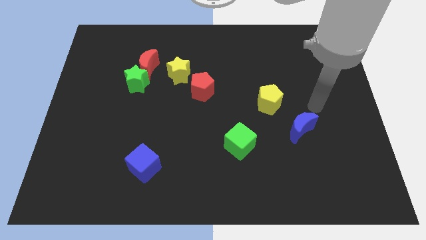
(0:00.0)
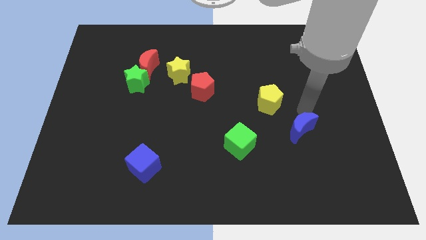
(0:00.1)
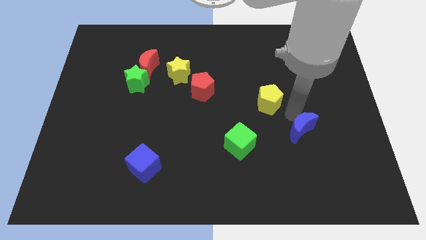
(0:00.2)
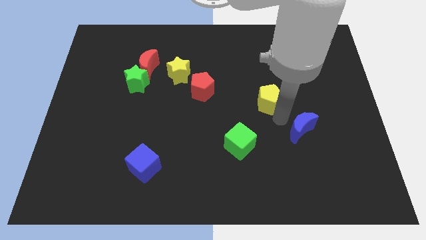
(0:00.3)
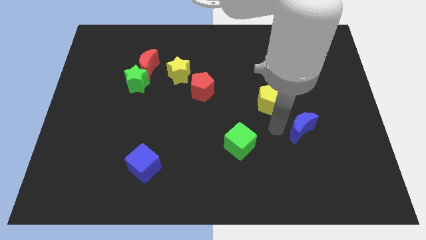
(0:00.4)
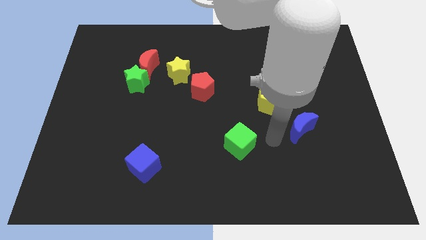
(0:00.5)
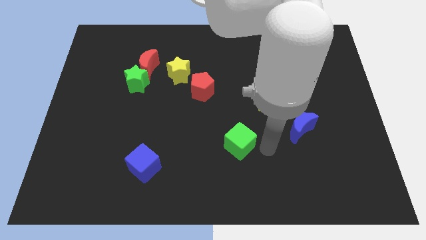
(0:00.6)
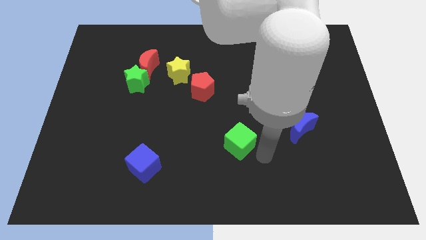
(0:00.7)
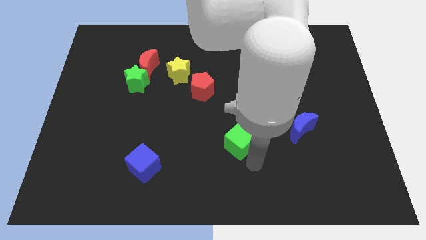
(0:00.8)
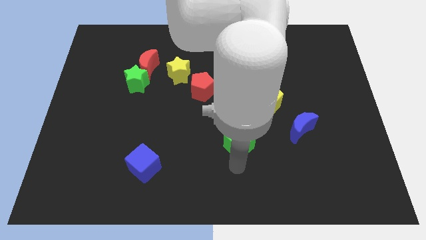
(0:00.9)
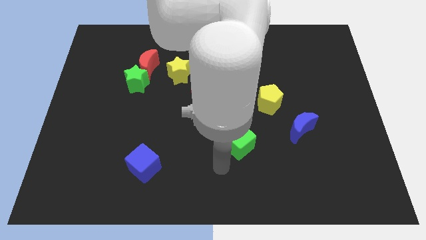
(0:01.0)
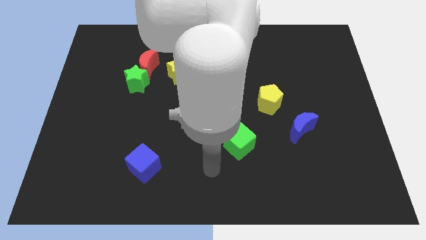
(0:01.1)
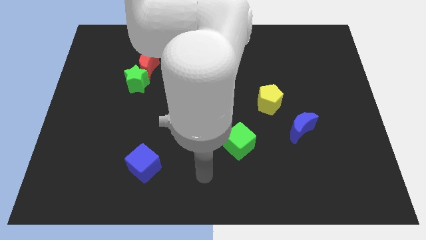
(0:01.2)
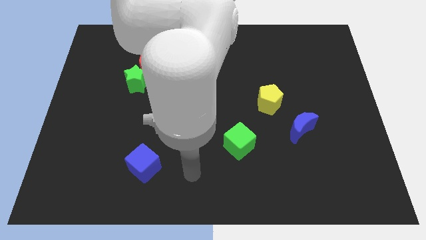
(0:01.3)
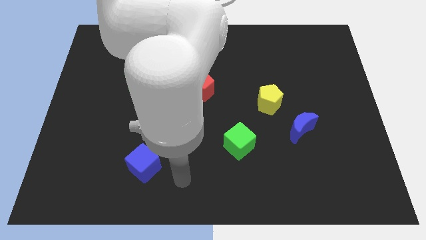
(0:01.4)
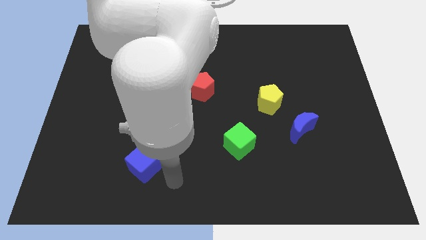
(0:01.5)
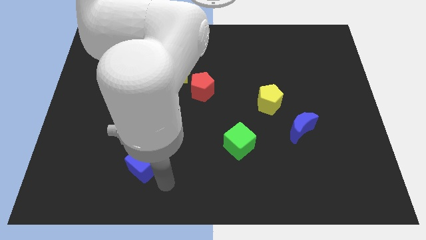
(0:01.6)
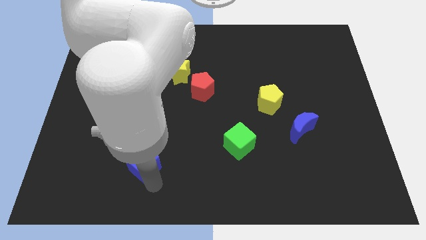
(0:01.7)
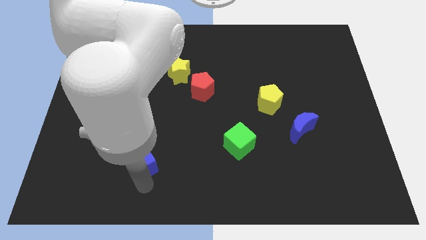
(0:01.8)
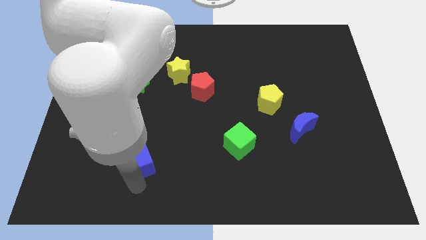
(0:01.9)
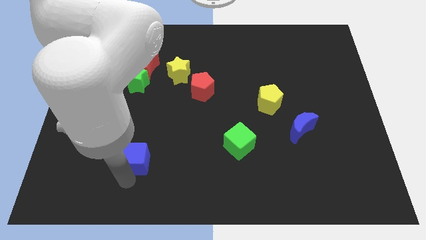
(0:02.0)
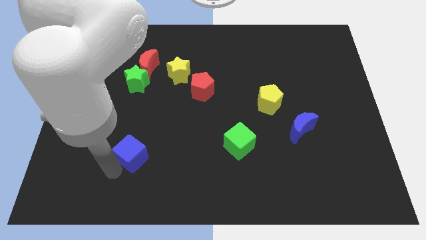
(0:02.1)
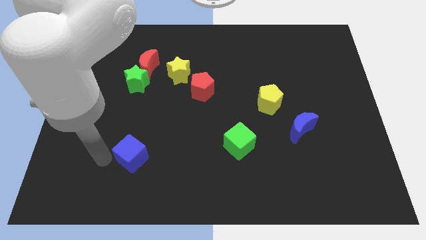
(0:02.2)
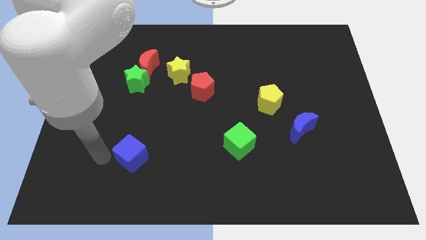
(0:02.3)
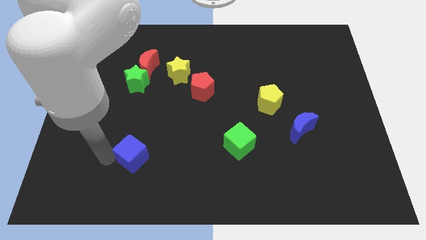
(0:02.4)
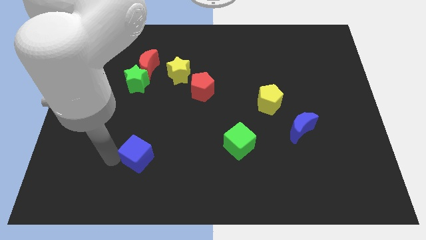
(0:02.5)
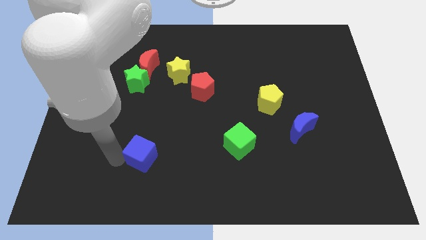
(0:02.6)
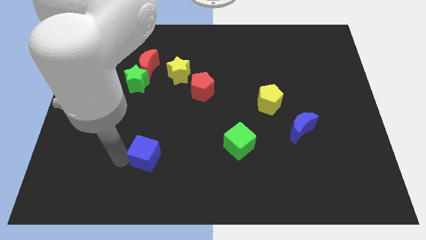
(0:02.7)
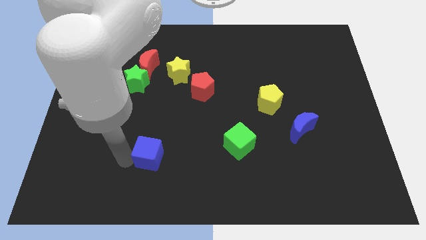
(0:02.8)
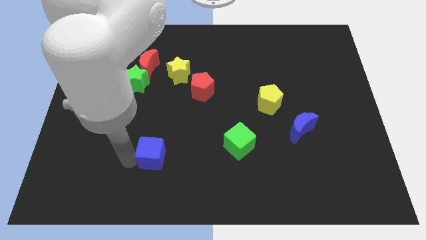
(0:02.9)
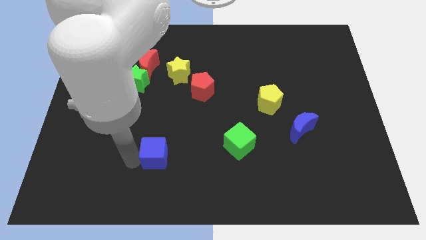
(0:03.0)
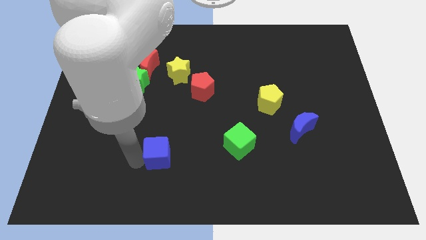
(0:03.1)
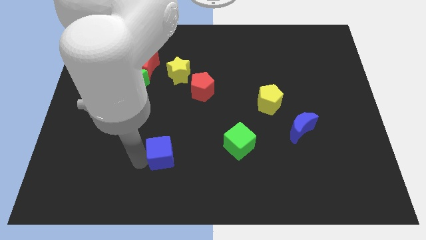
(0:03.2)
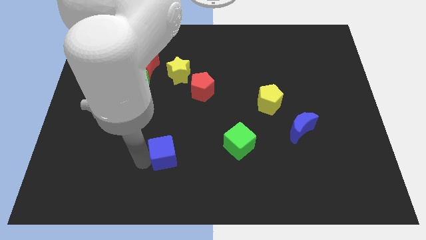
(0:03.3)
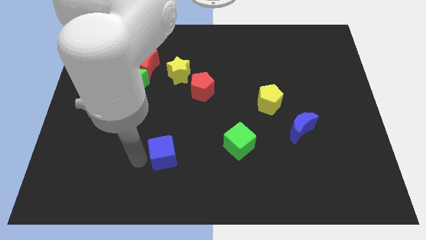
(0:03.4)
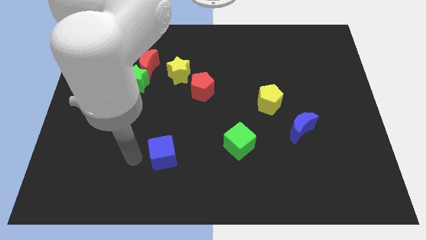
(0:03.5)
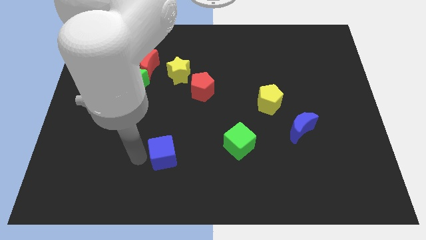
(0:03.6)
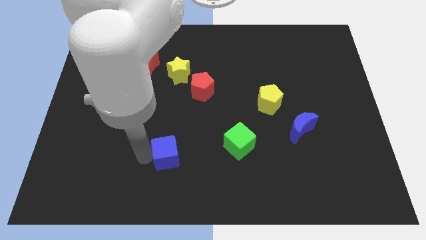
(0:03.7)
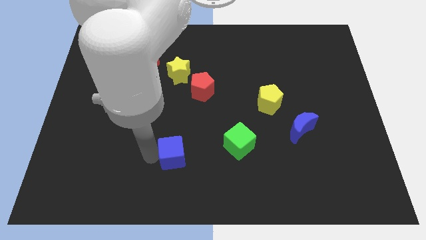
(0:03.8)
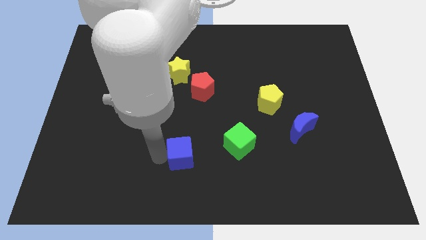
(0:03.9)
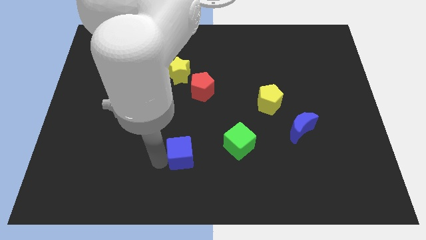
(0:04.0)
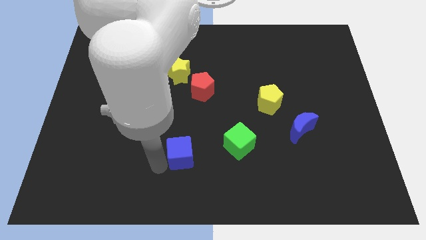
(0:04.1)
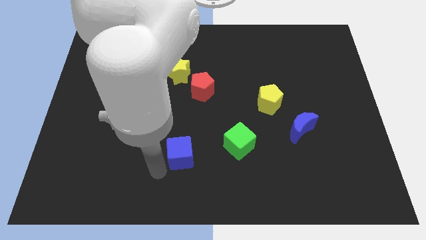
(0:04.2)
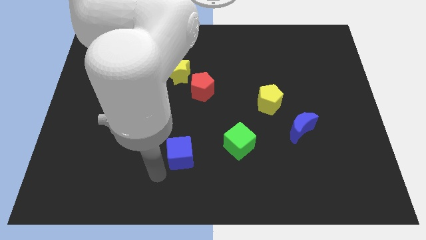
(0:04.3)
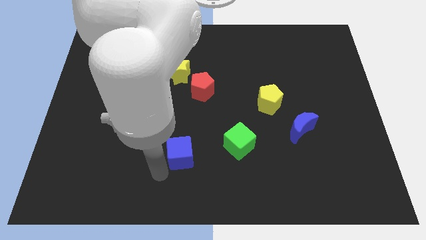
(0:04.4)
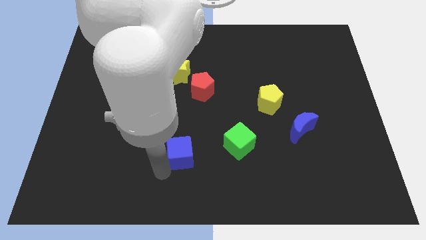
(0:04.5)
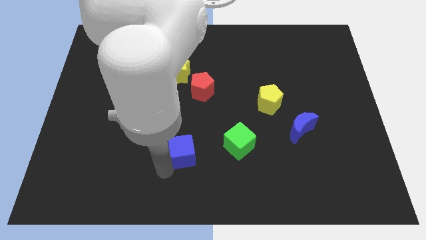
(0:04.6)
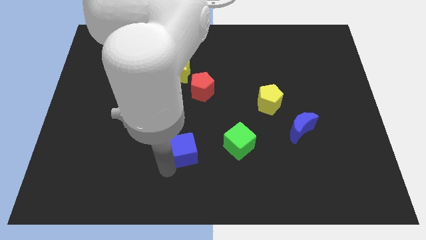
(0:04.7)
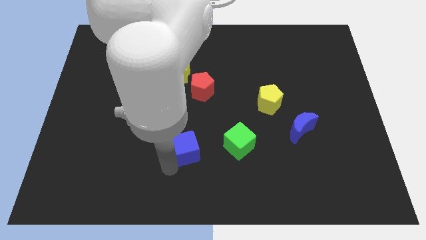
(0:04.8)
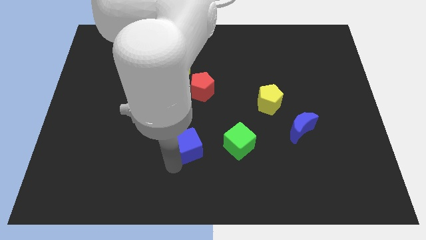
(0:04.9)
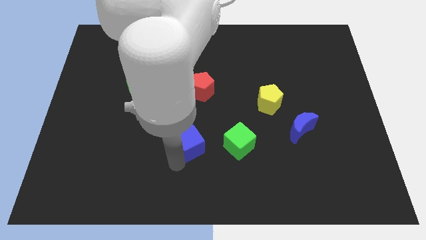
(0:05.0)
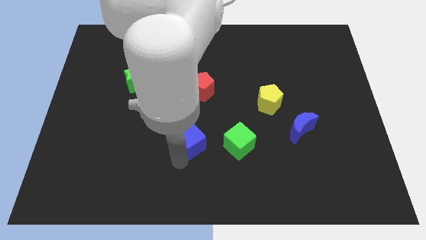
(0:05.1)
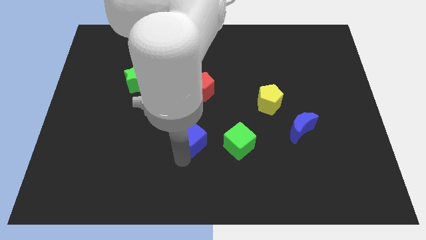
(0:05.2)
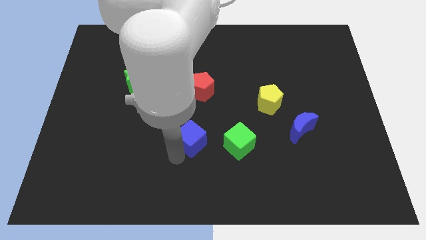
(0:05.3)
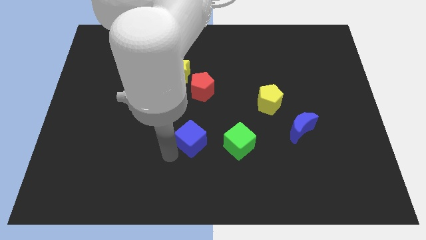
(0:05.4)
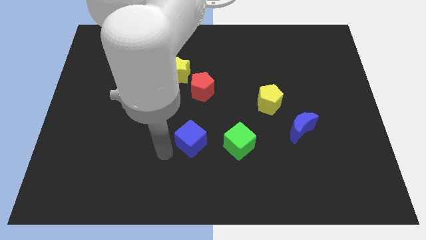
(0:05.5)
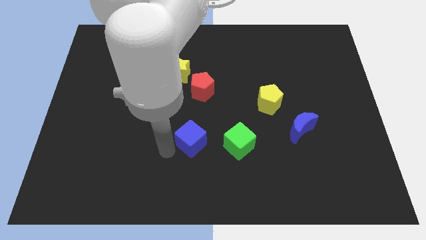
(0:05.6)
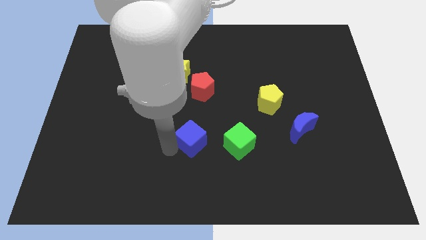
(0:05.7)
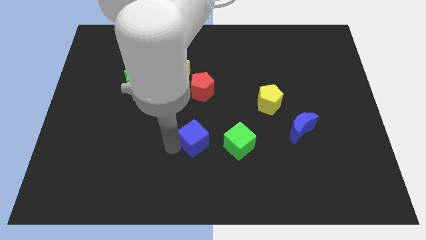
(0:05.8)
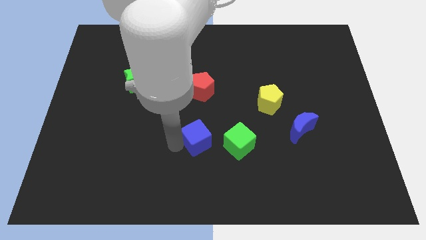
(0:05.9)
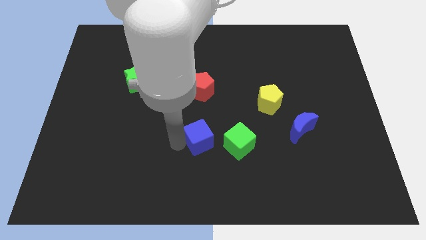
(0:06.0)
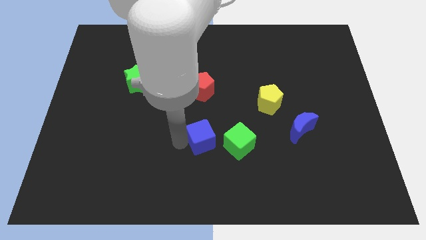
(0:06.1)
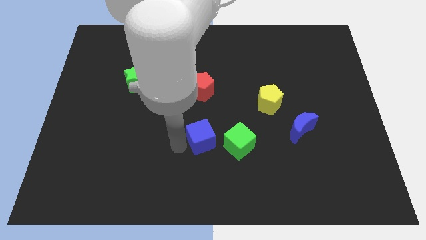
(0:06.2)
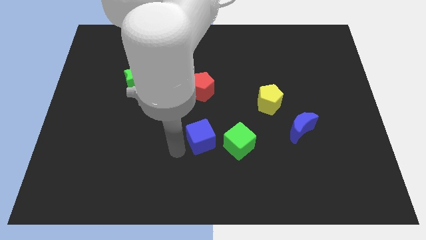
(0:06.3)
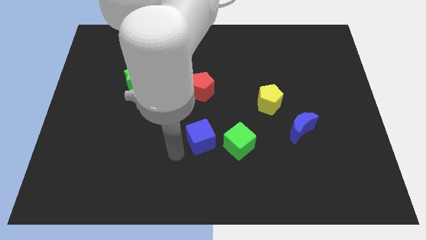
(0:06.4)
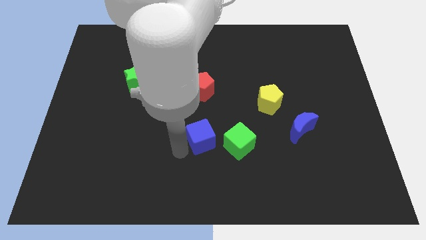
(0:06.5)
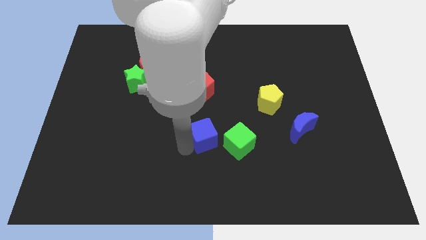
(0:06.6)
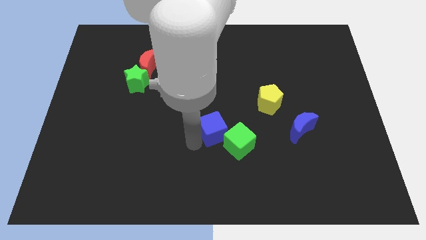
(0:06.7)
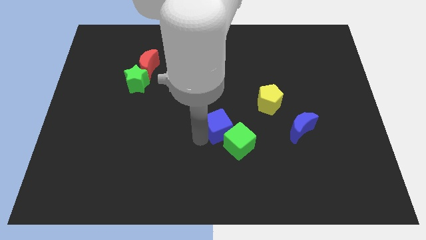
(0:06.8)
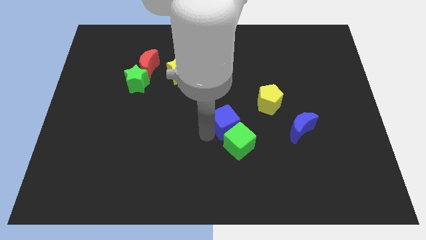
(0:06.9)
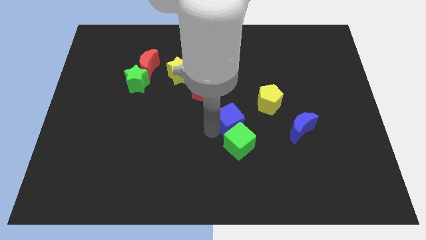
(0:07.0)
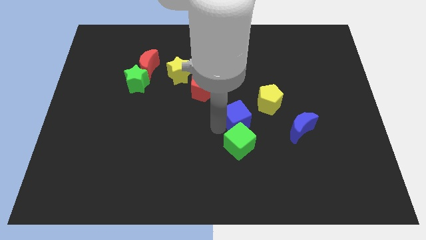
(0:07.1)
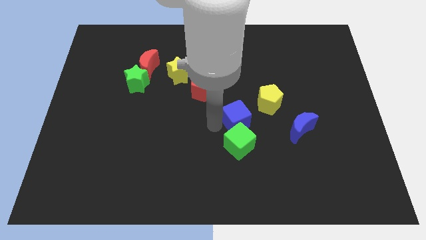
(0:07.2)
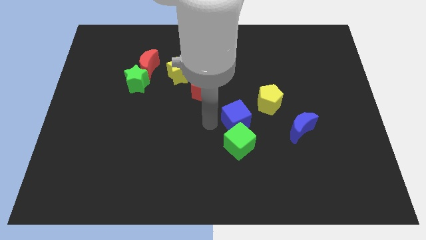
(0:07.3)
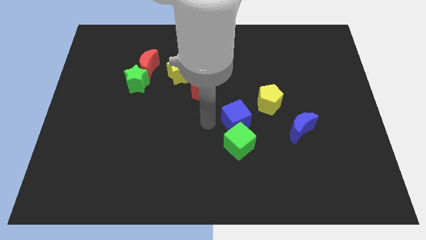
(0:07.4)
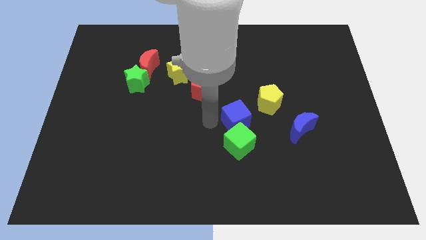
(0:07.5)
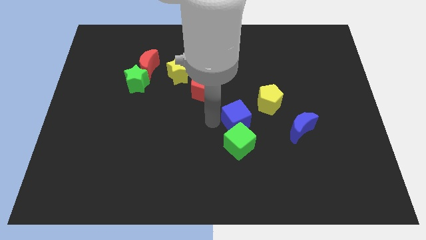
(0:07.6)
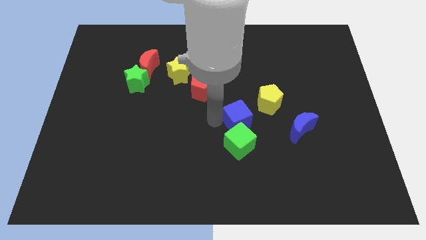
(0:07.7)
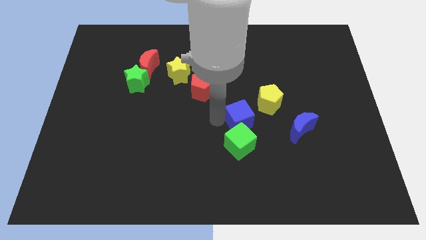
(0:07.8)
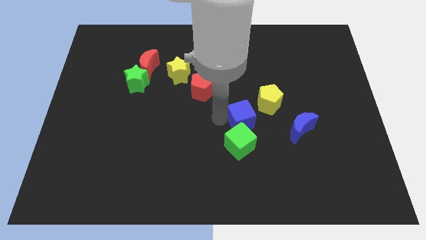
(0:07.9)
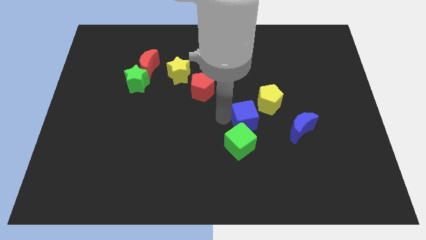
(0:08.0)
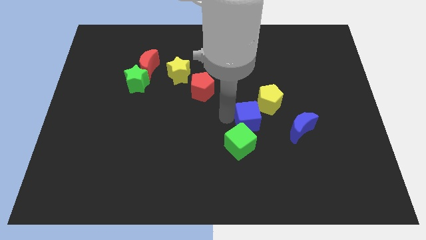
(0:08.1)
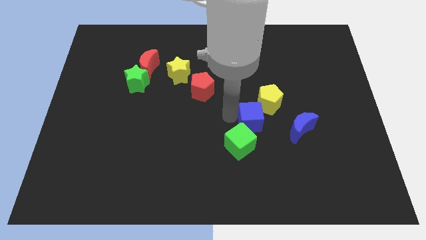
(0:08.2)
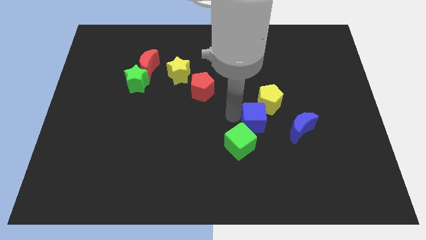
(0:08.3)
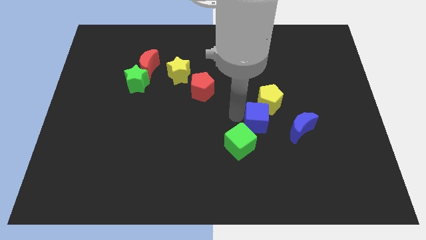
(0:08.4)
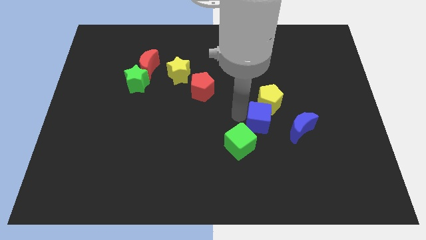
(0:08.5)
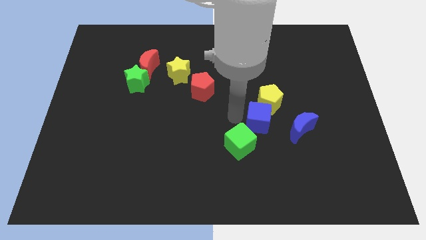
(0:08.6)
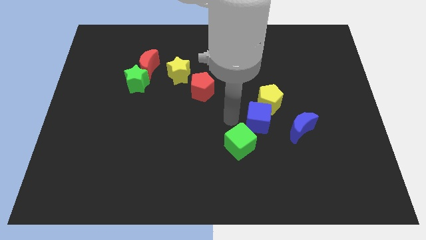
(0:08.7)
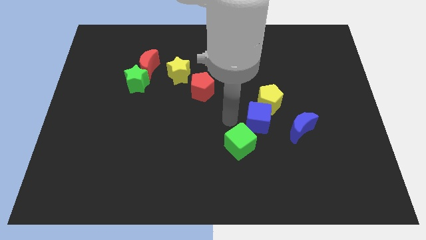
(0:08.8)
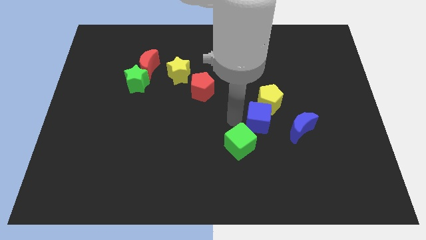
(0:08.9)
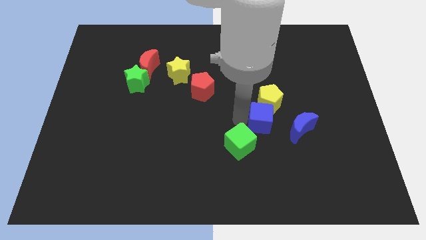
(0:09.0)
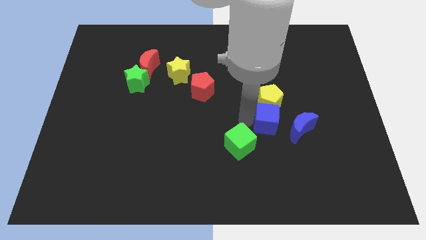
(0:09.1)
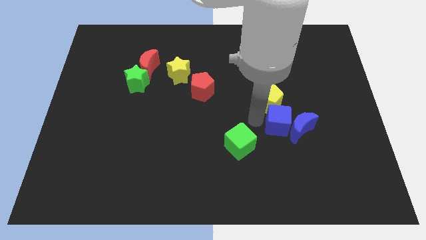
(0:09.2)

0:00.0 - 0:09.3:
push the blue cube to the blue moon
